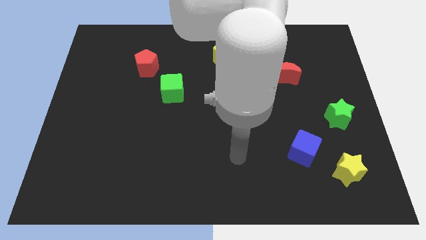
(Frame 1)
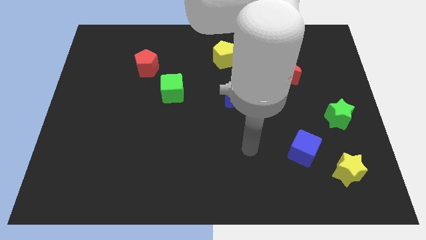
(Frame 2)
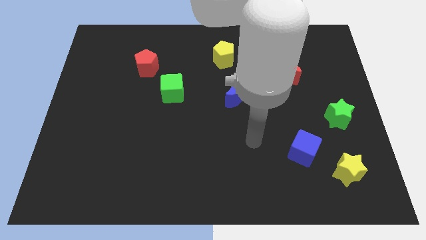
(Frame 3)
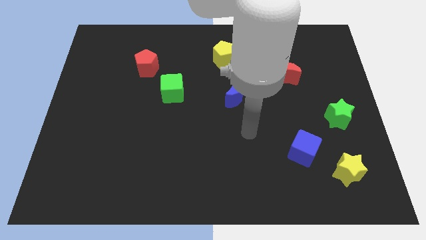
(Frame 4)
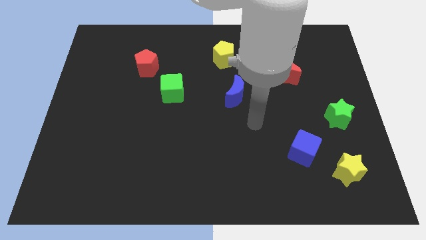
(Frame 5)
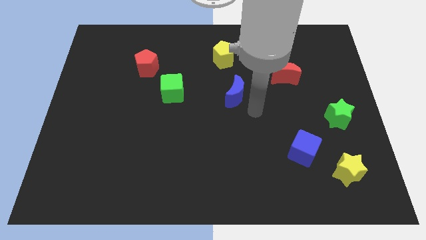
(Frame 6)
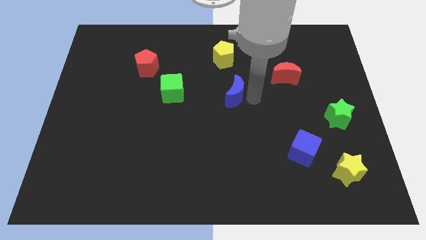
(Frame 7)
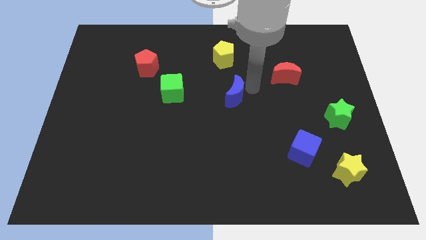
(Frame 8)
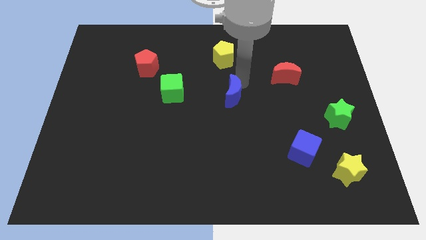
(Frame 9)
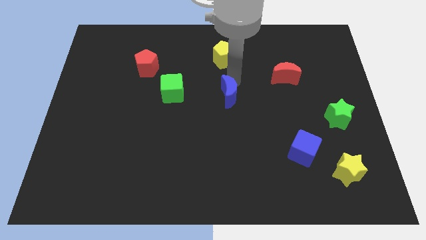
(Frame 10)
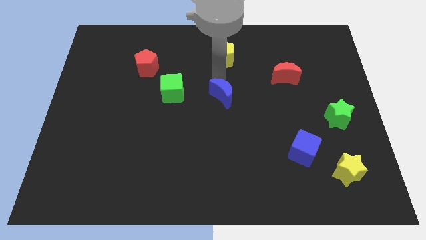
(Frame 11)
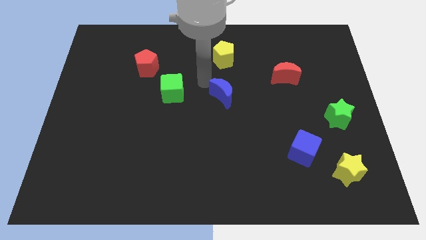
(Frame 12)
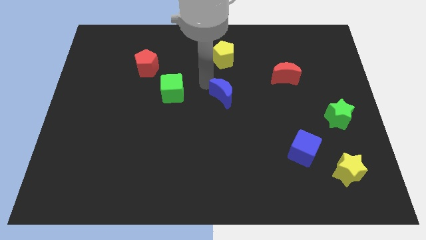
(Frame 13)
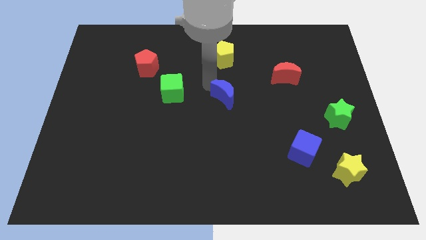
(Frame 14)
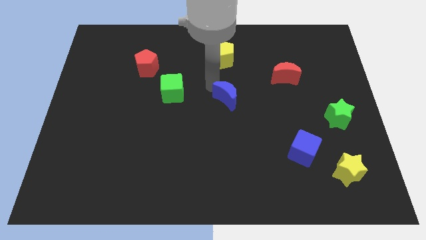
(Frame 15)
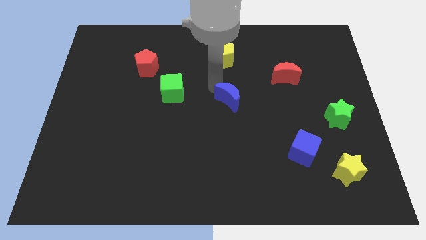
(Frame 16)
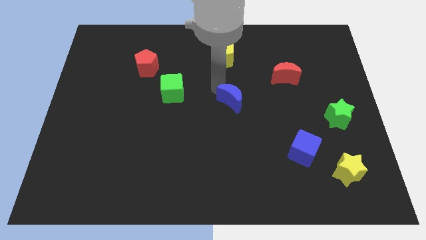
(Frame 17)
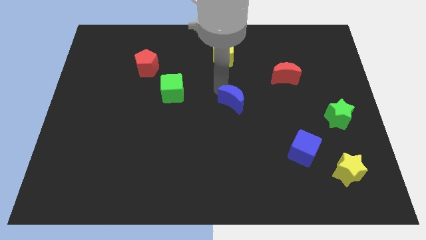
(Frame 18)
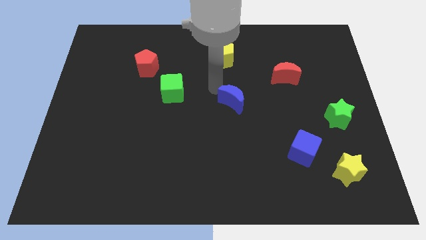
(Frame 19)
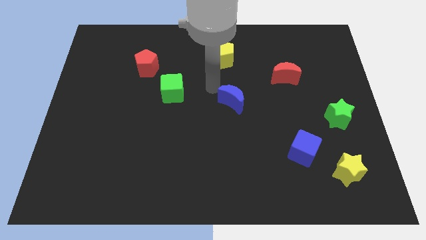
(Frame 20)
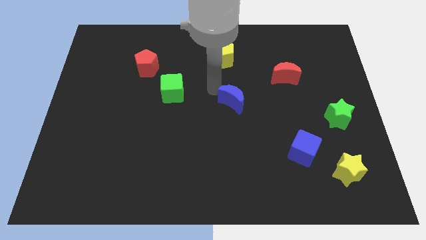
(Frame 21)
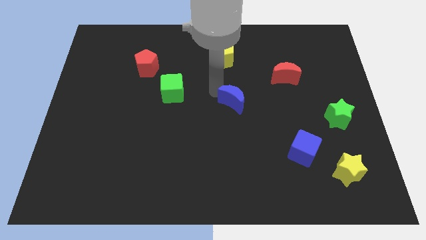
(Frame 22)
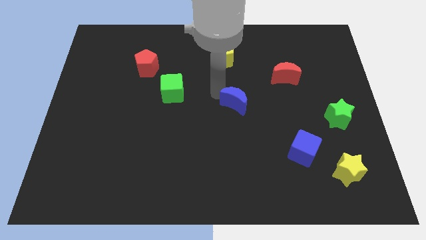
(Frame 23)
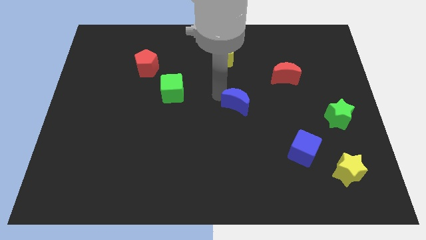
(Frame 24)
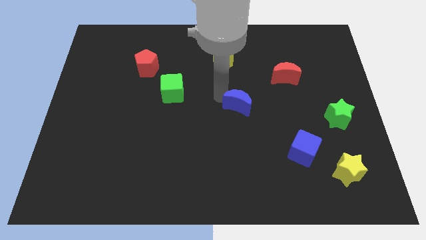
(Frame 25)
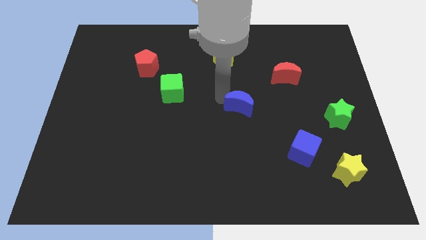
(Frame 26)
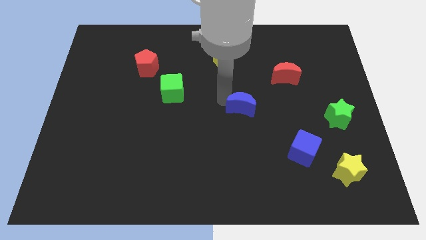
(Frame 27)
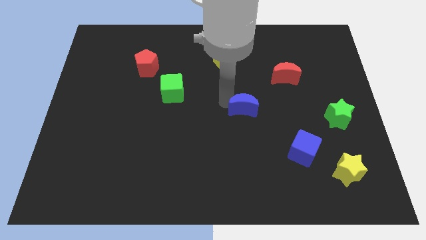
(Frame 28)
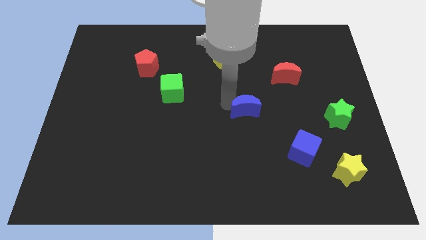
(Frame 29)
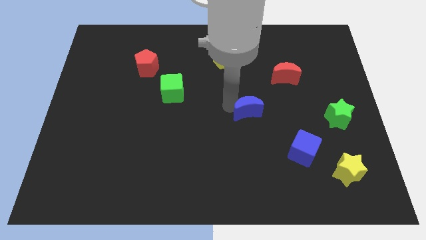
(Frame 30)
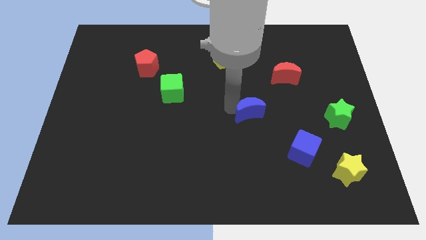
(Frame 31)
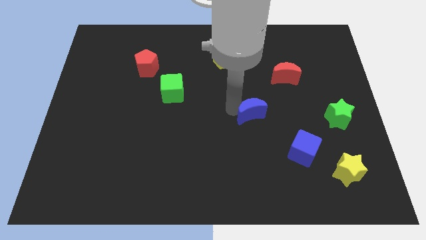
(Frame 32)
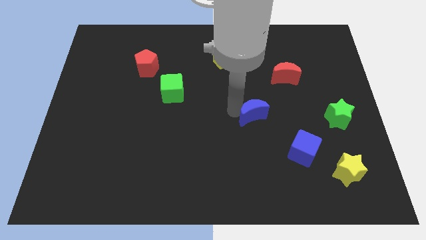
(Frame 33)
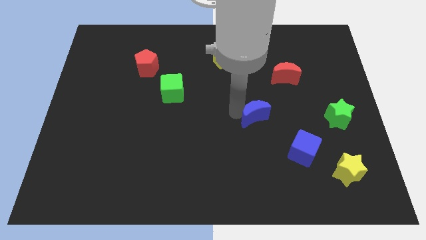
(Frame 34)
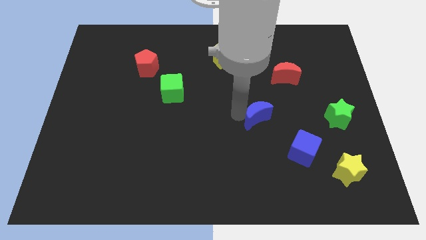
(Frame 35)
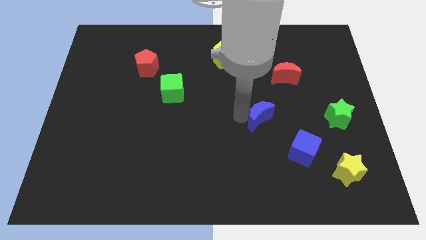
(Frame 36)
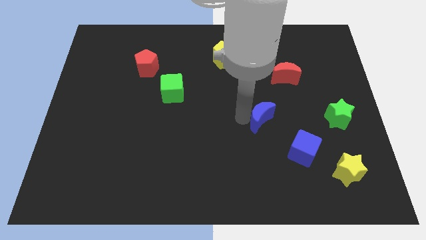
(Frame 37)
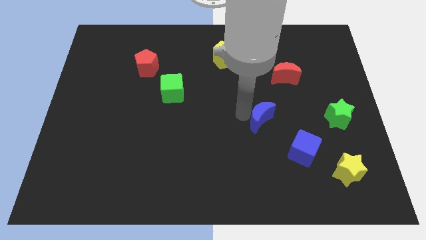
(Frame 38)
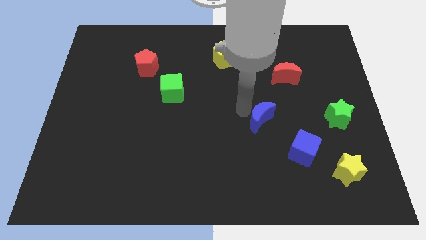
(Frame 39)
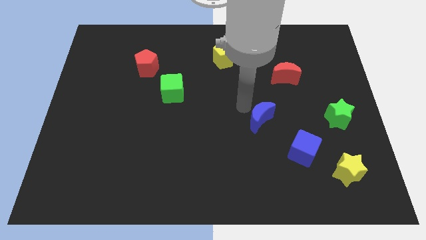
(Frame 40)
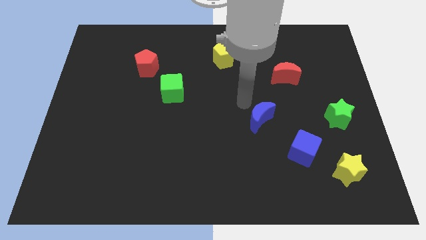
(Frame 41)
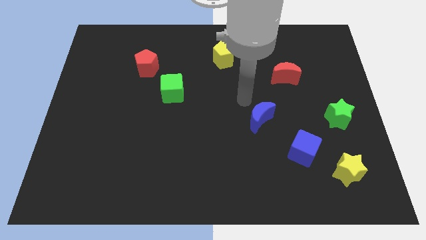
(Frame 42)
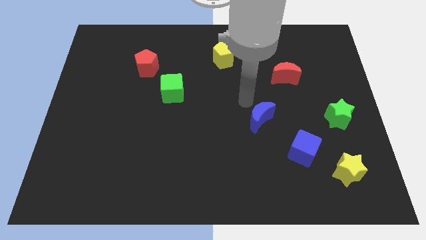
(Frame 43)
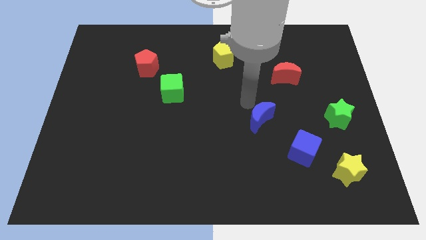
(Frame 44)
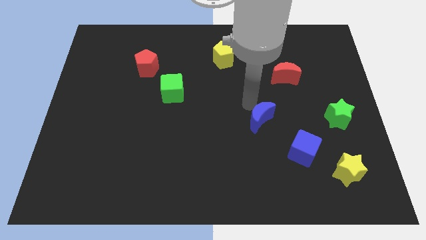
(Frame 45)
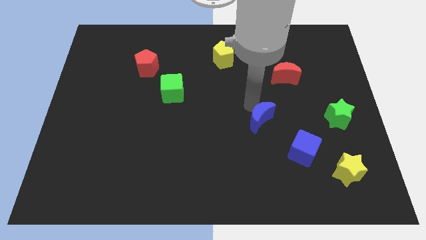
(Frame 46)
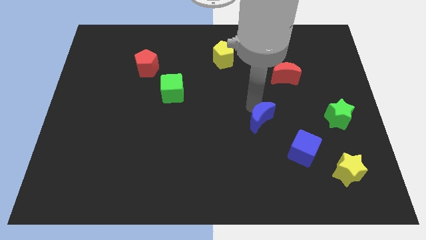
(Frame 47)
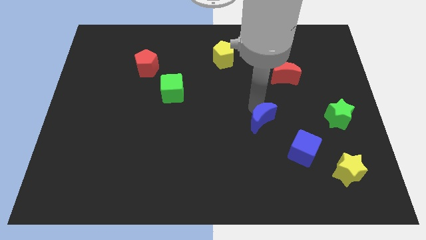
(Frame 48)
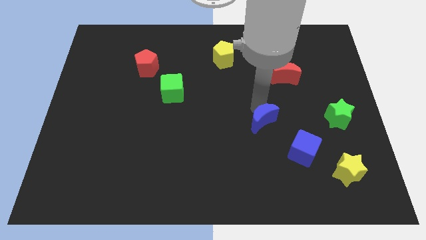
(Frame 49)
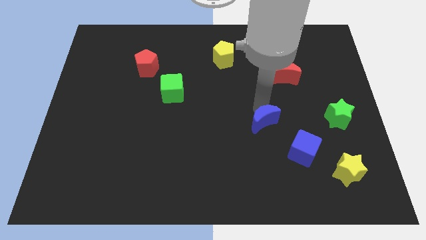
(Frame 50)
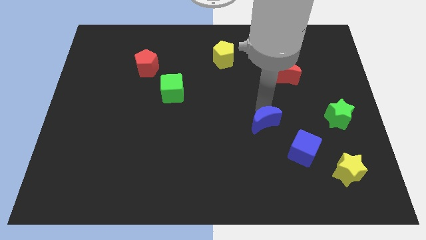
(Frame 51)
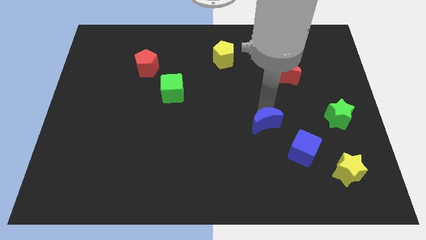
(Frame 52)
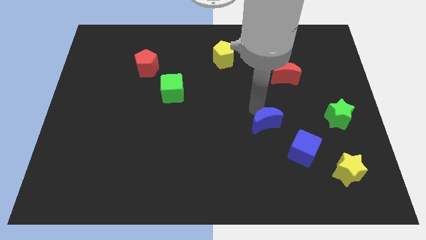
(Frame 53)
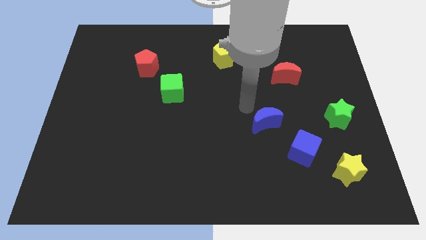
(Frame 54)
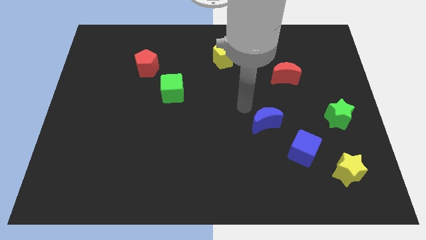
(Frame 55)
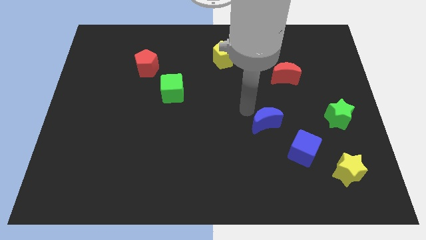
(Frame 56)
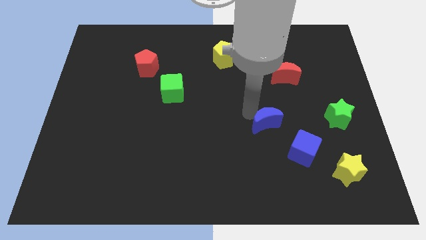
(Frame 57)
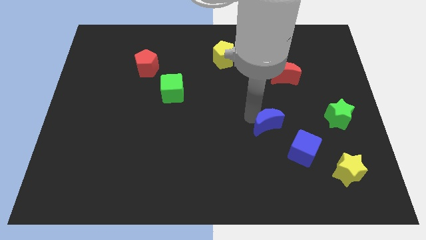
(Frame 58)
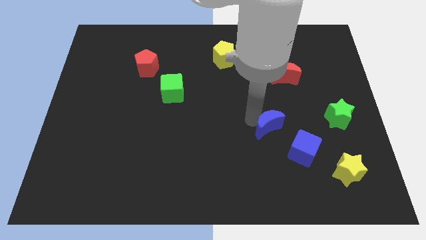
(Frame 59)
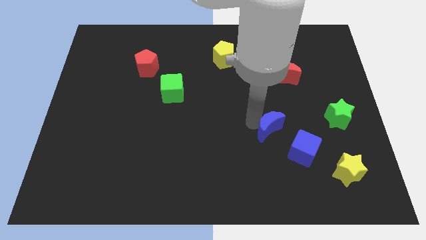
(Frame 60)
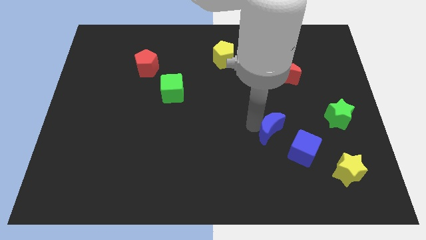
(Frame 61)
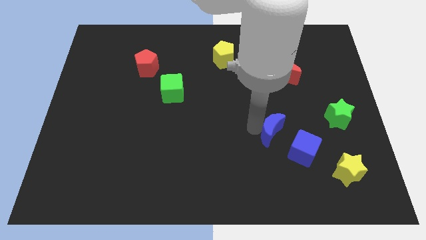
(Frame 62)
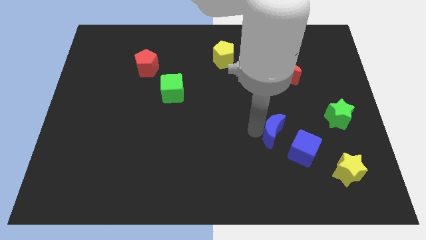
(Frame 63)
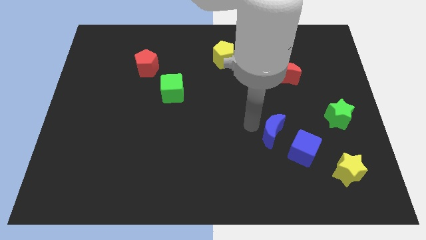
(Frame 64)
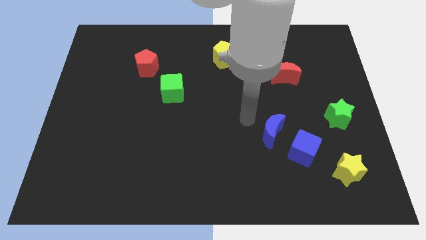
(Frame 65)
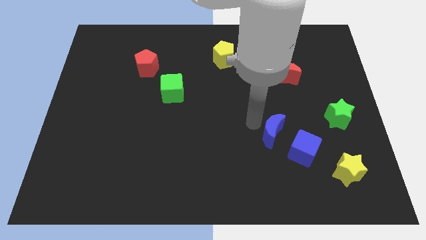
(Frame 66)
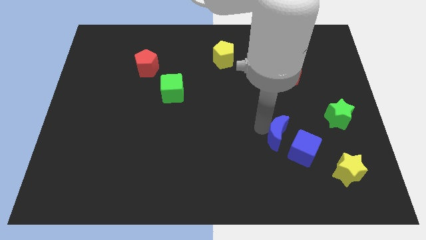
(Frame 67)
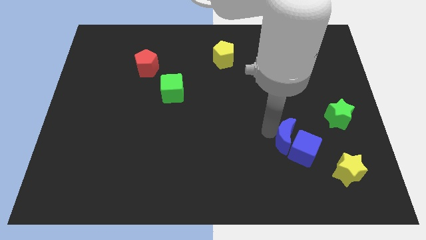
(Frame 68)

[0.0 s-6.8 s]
push the blue moon next to the blue cube
